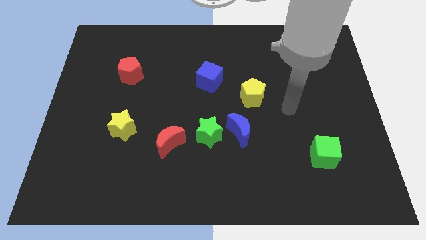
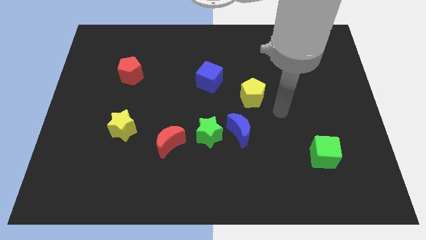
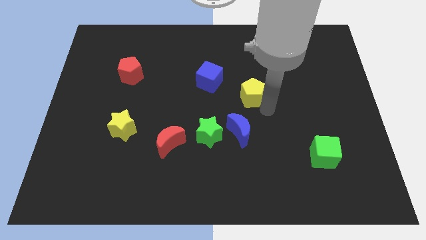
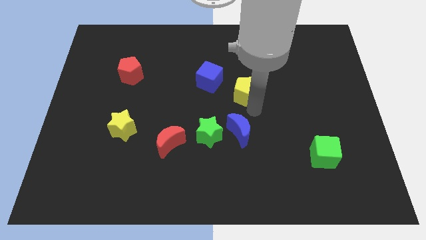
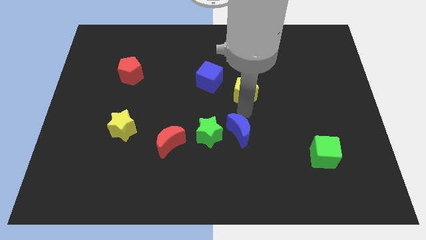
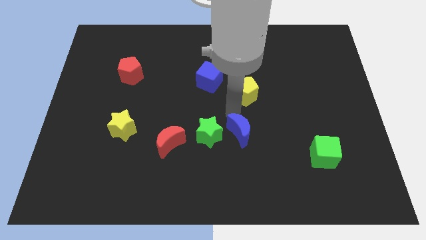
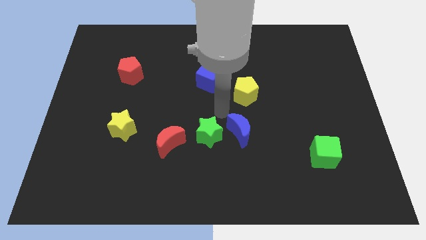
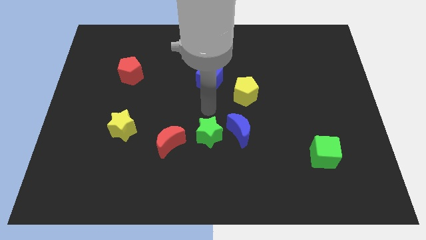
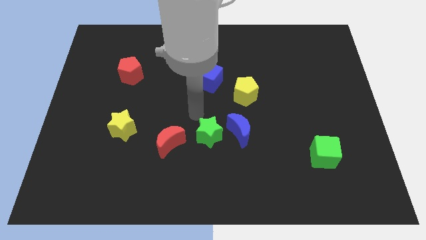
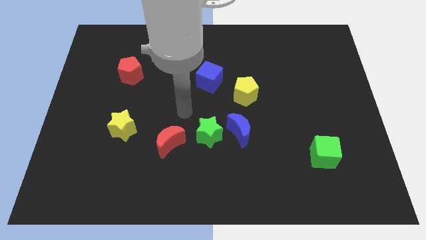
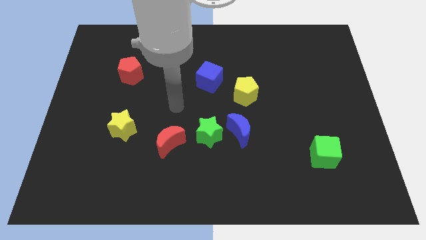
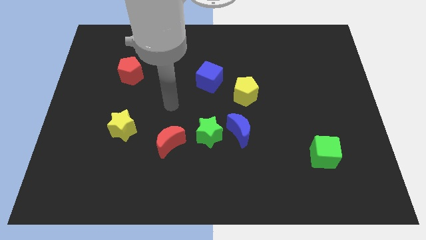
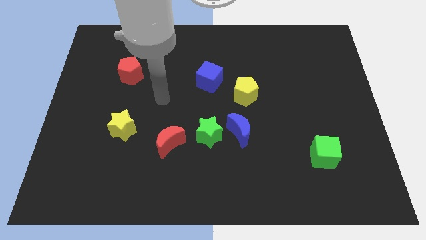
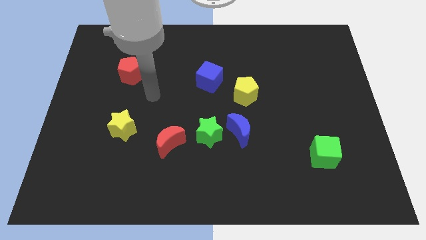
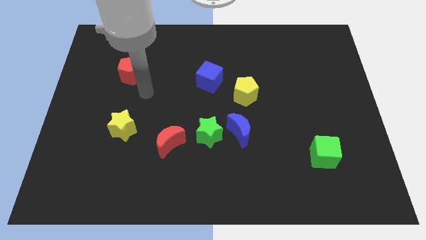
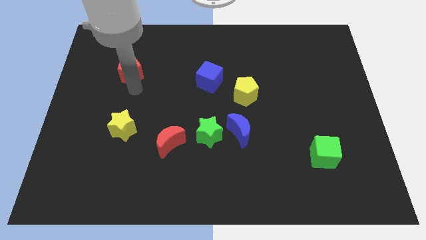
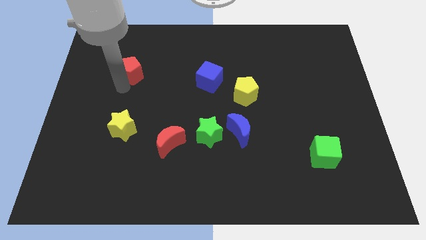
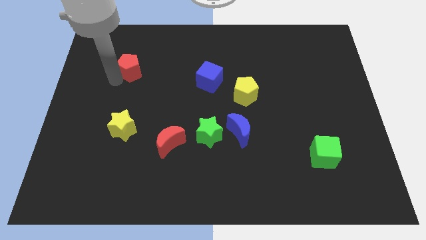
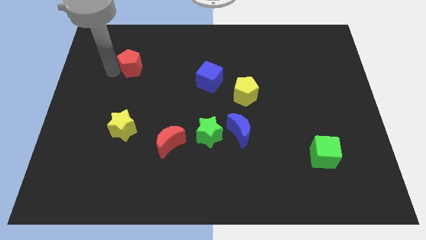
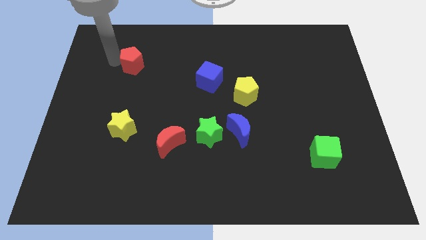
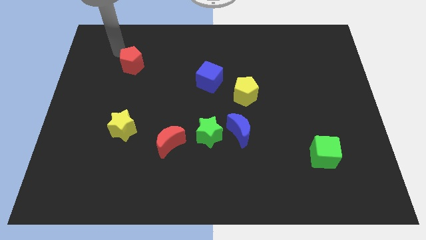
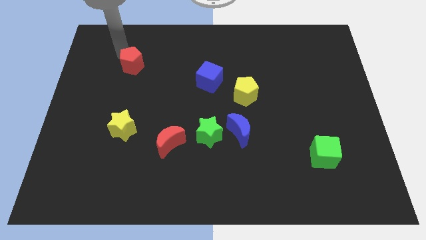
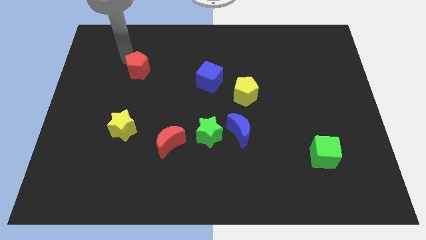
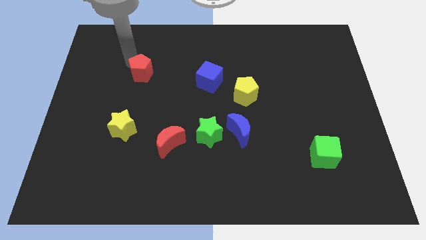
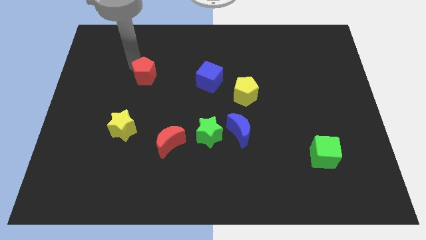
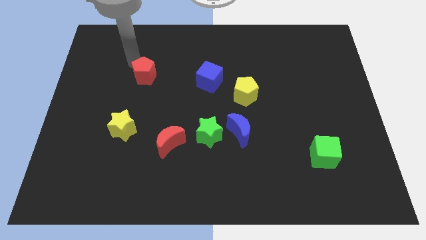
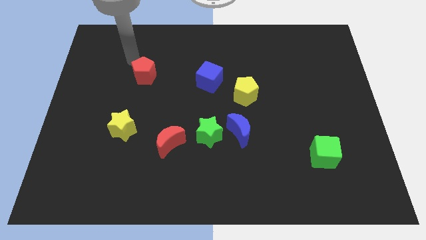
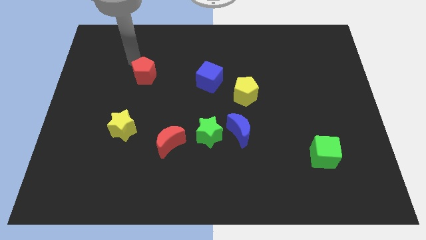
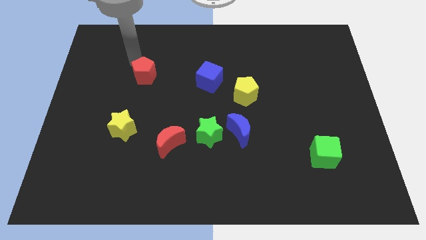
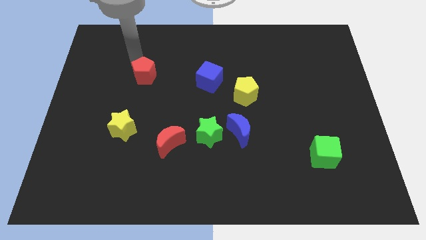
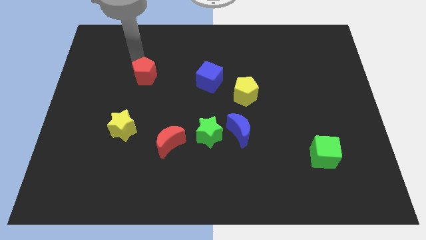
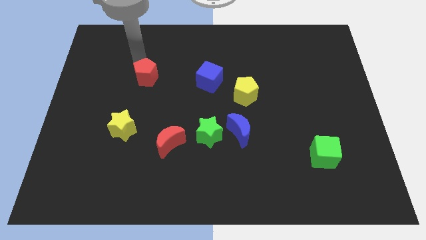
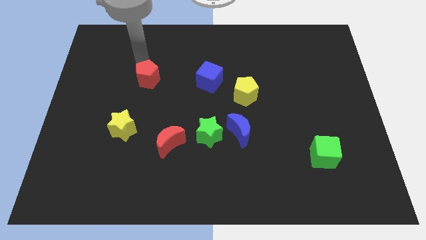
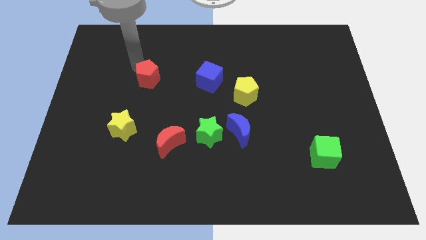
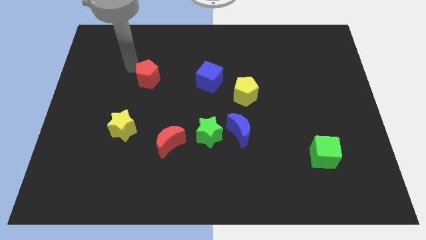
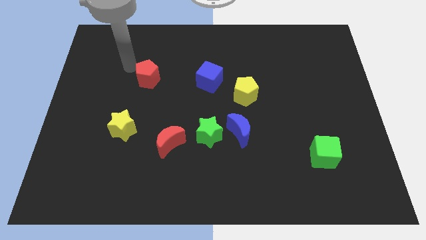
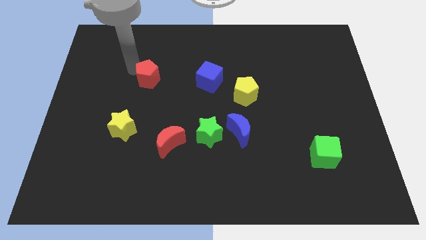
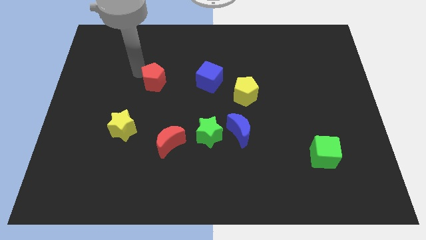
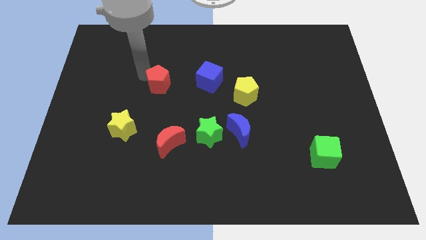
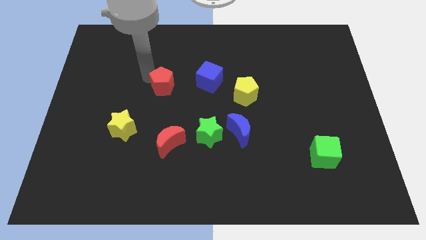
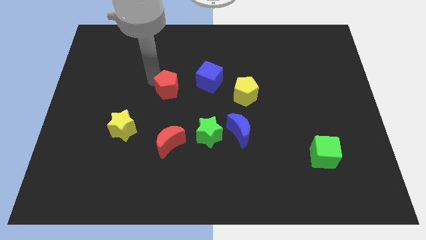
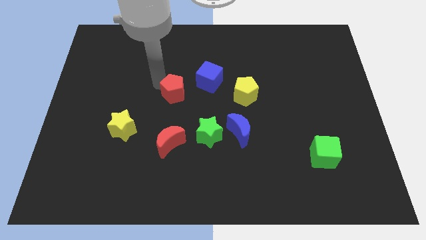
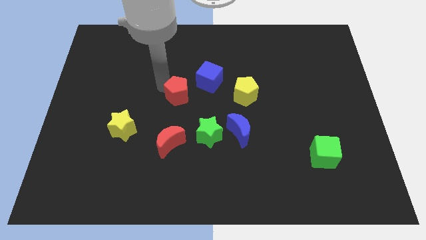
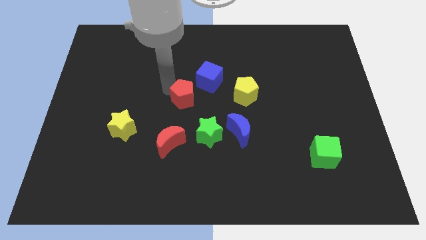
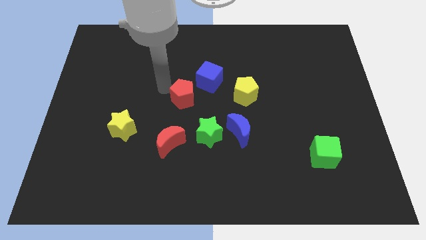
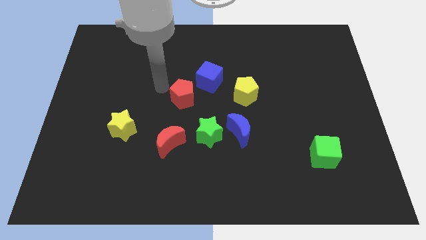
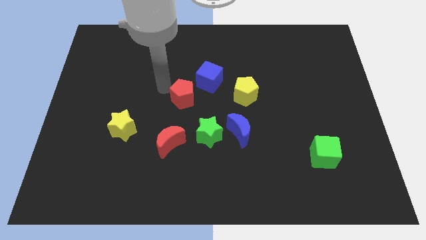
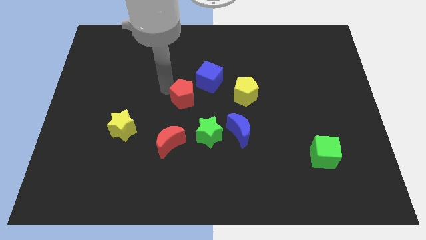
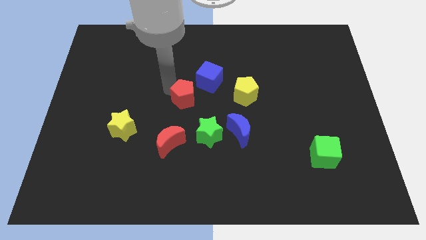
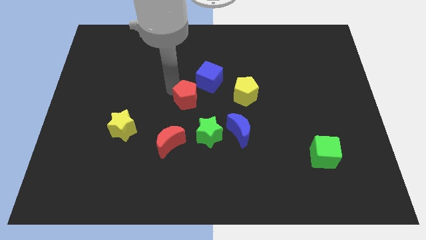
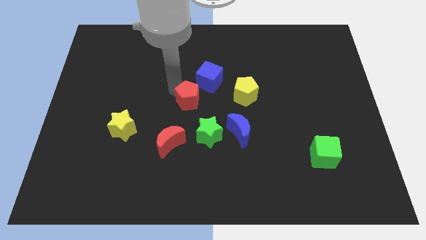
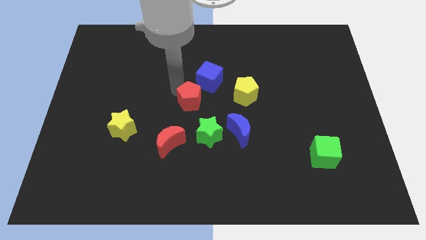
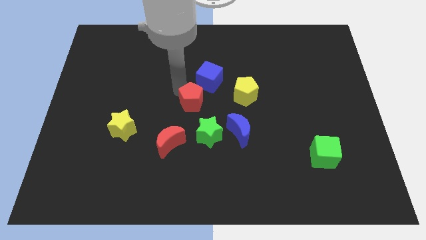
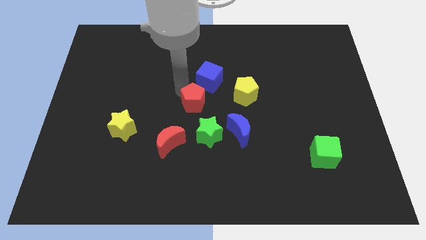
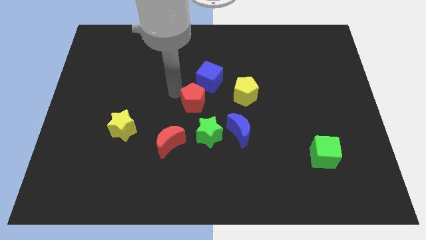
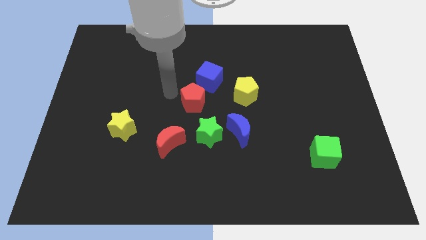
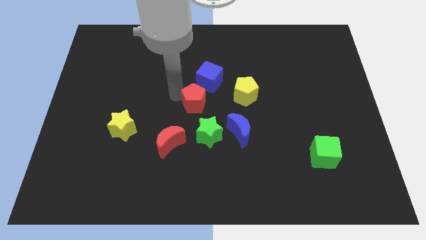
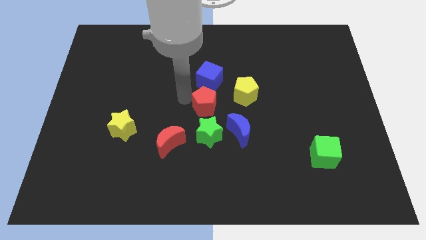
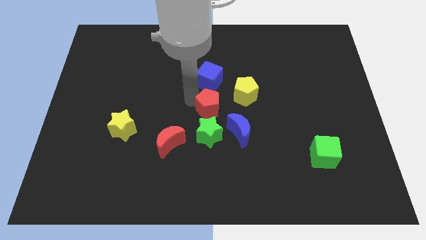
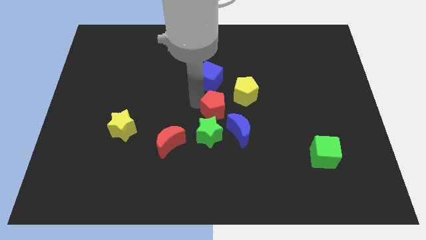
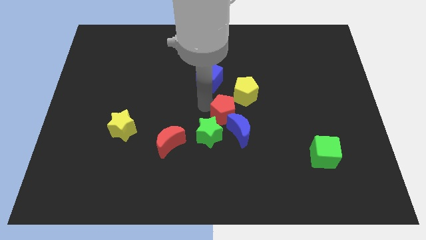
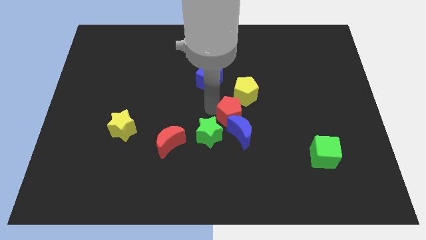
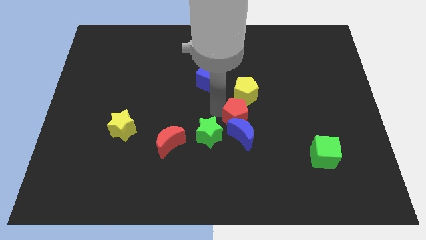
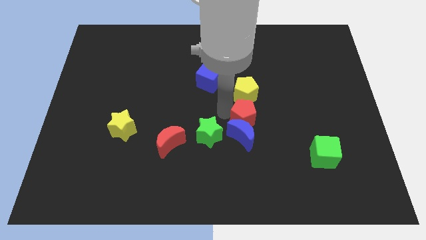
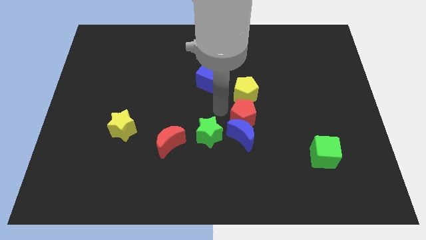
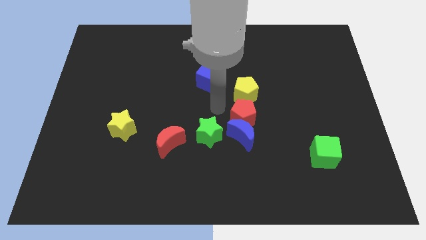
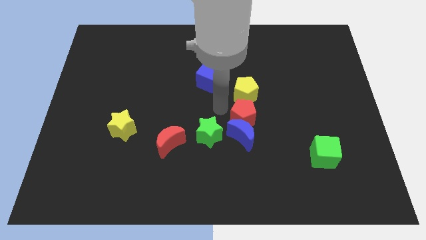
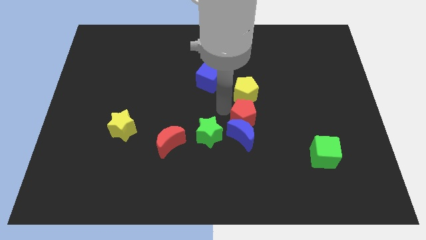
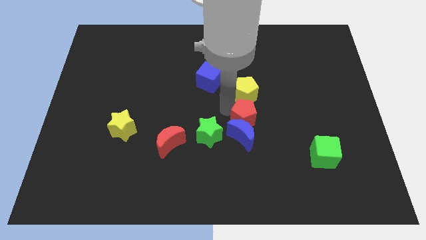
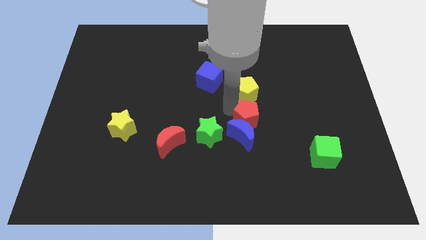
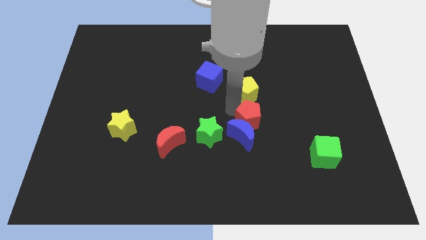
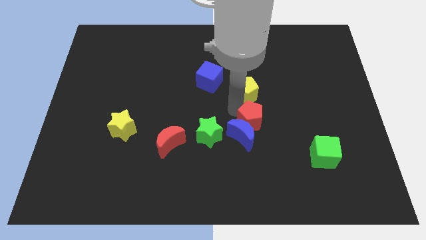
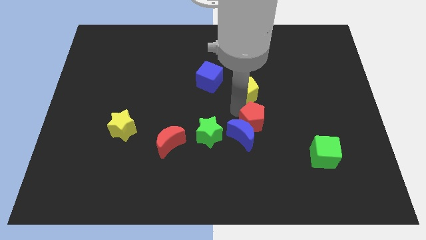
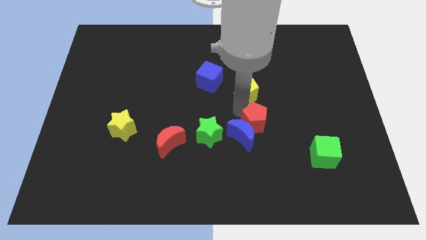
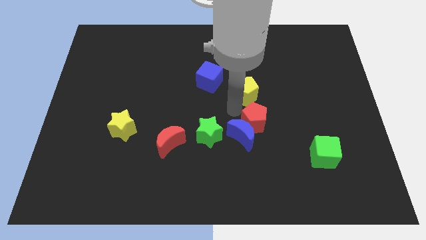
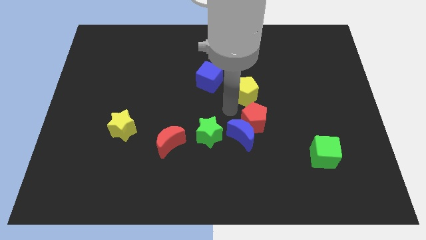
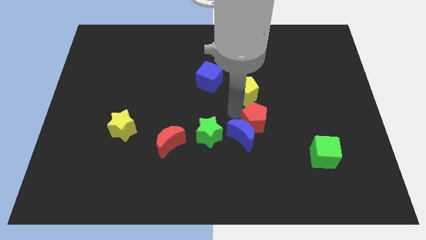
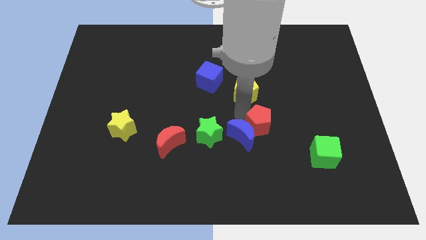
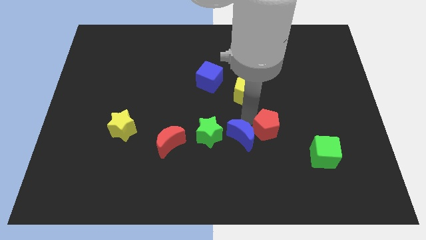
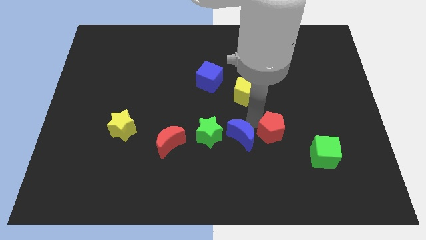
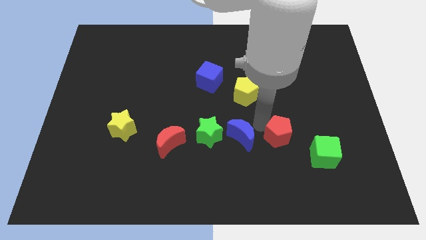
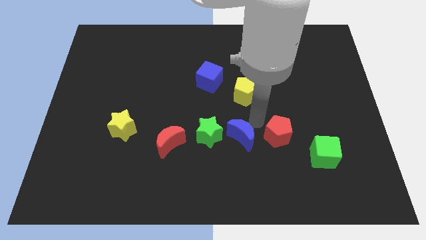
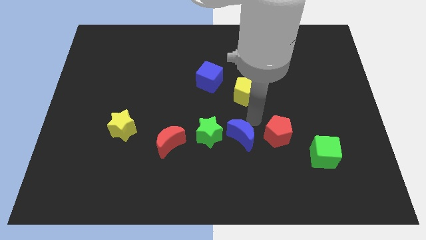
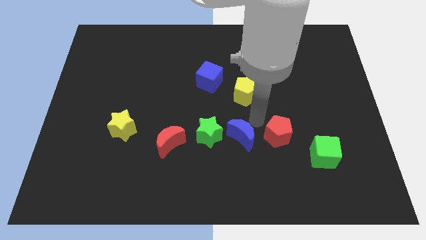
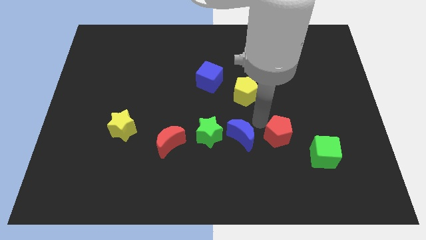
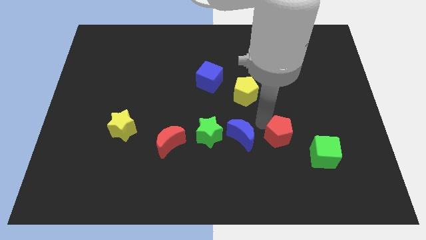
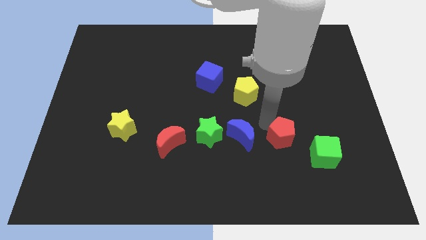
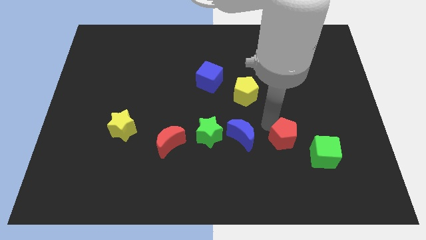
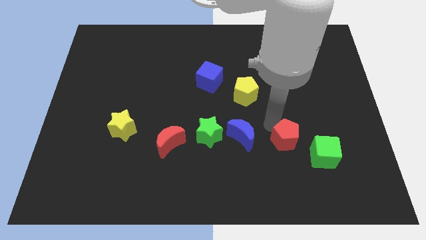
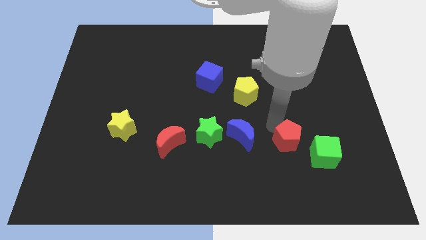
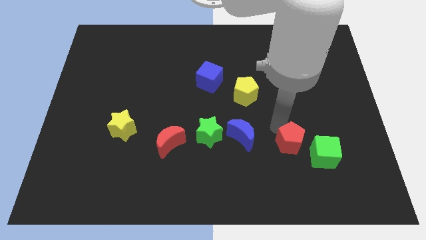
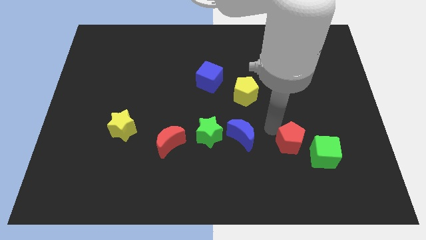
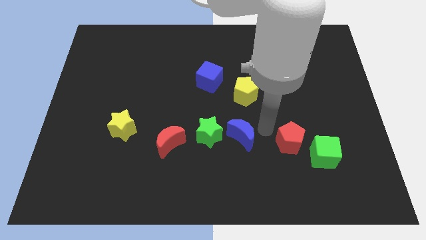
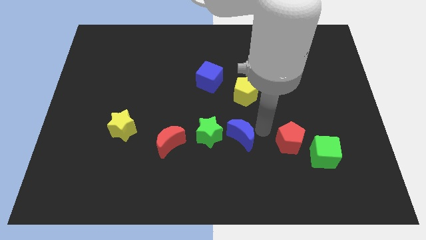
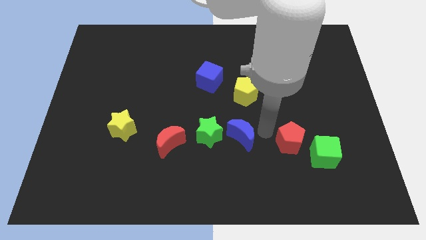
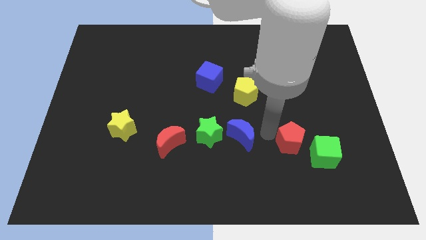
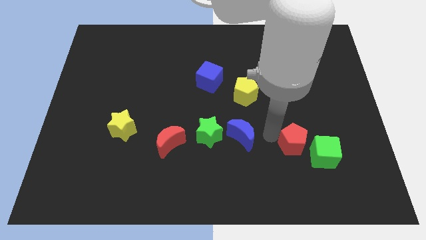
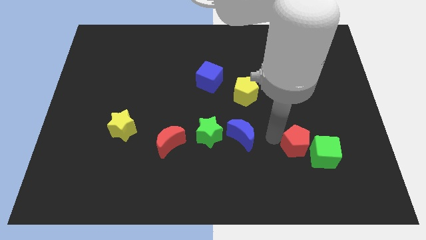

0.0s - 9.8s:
push the red pentagon close to the green cube
